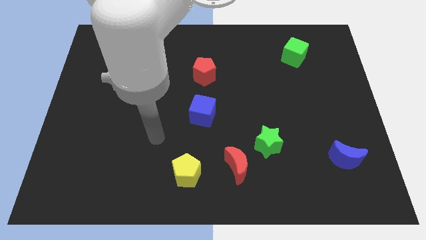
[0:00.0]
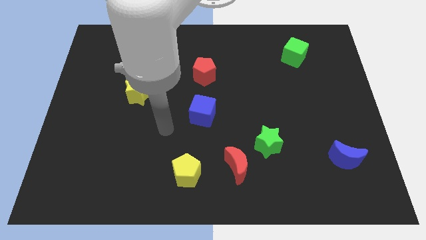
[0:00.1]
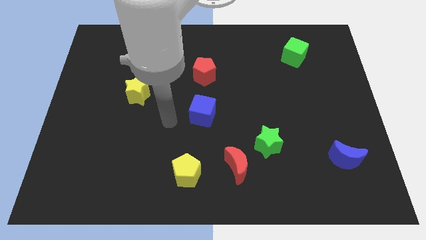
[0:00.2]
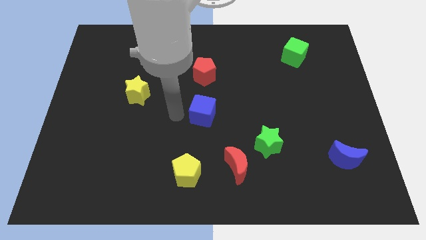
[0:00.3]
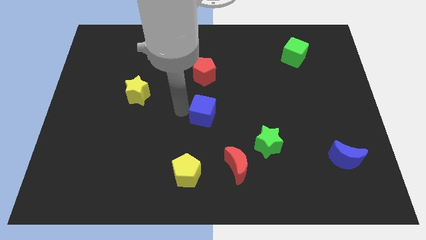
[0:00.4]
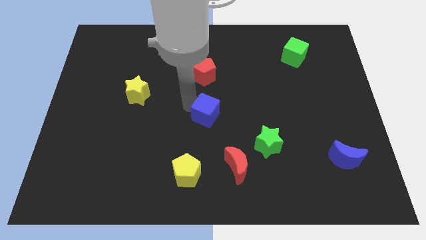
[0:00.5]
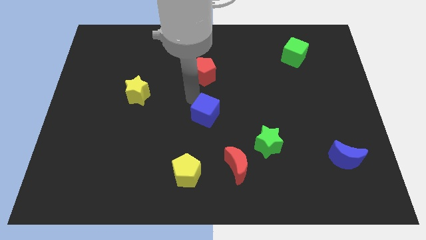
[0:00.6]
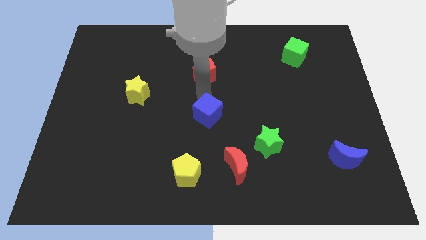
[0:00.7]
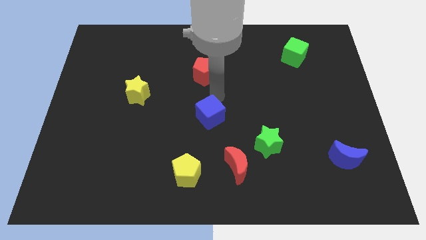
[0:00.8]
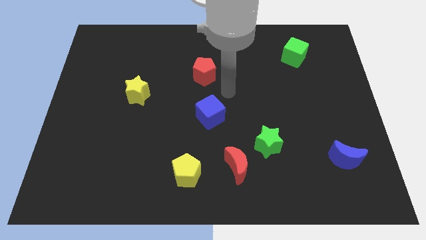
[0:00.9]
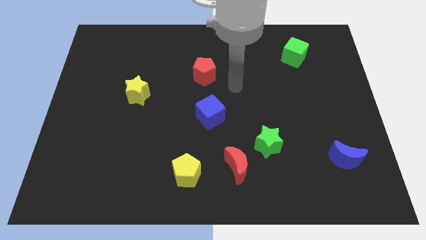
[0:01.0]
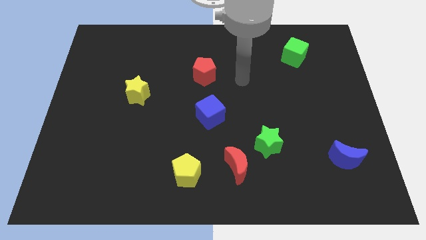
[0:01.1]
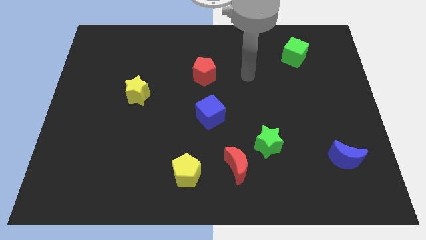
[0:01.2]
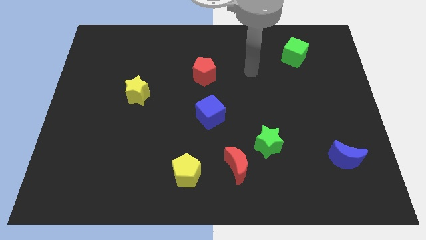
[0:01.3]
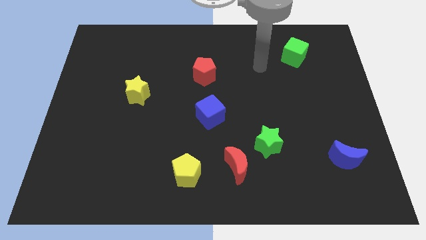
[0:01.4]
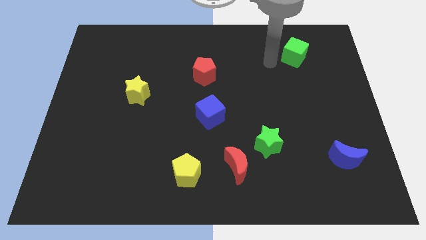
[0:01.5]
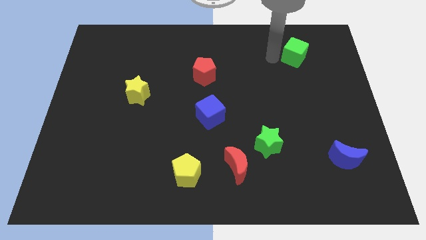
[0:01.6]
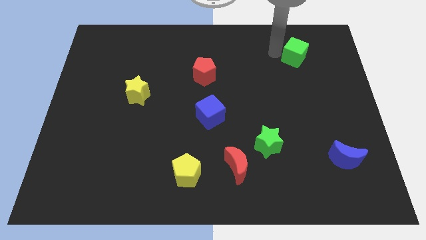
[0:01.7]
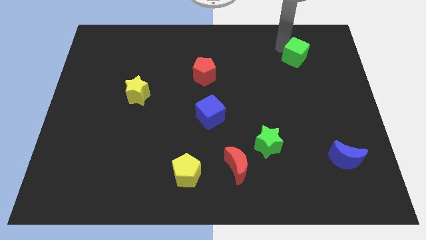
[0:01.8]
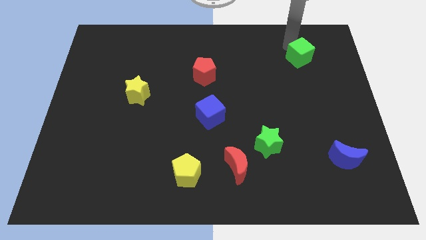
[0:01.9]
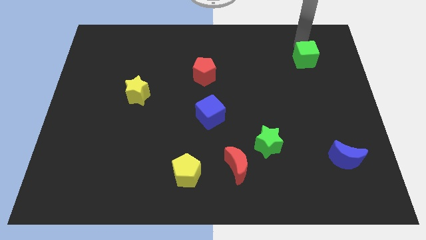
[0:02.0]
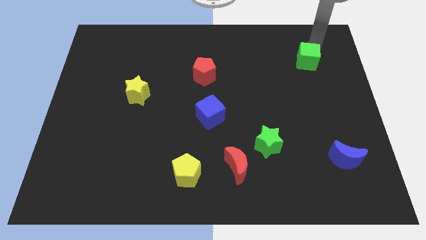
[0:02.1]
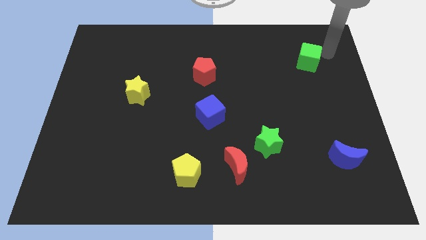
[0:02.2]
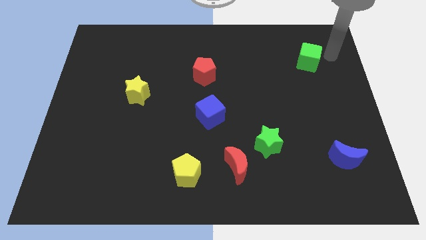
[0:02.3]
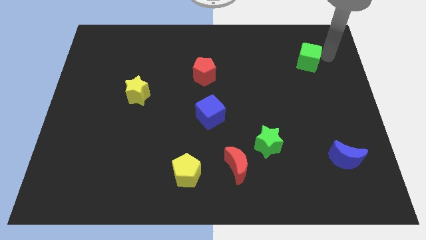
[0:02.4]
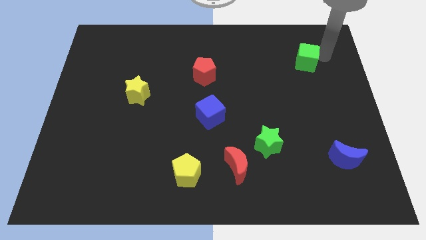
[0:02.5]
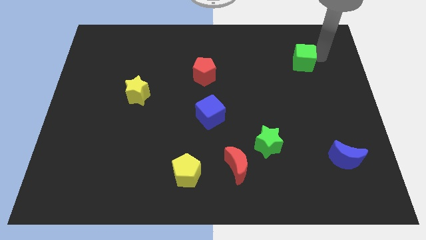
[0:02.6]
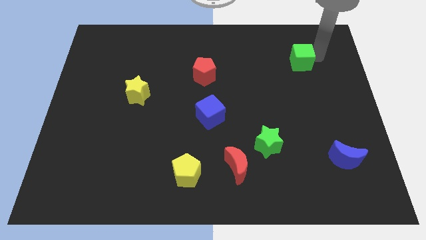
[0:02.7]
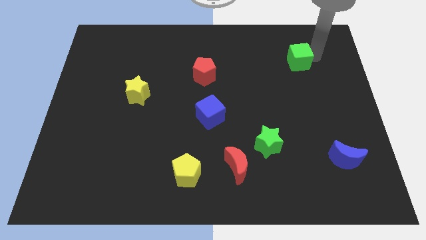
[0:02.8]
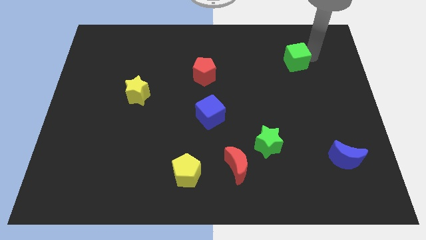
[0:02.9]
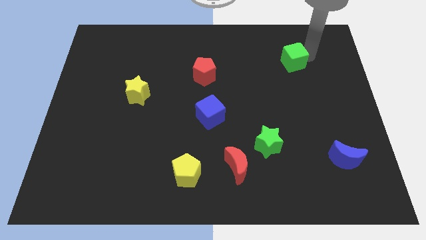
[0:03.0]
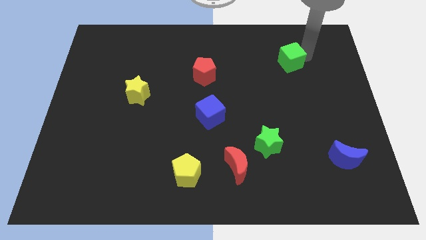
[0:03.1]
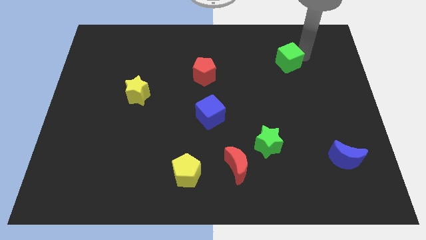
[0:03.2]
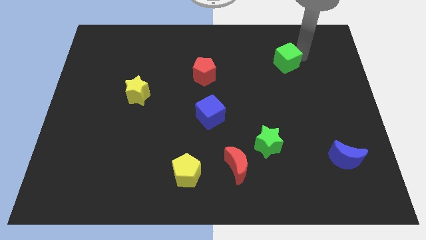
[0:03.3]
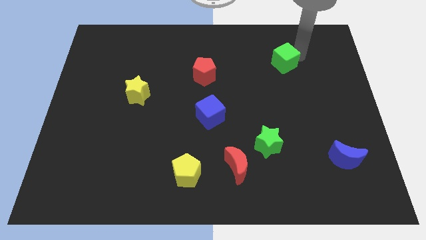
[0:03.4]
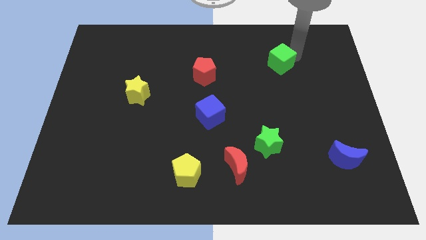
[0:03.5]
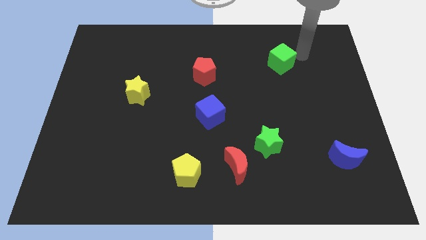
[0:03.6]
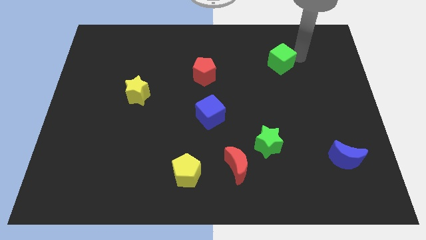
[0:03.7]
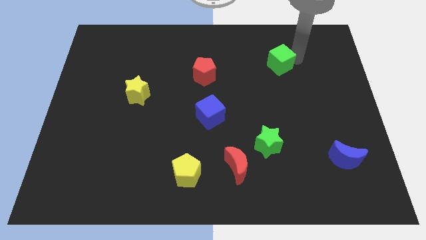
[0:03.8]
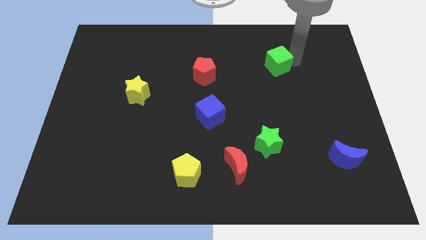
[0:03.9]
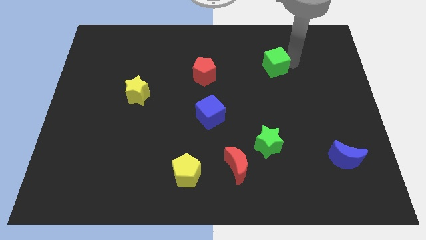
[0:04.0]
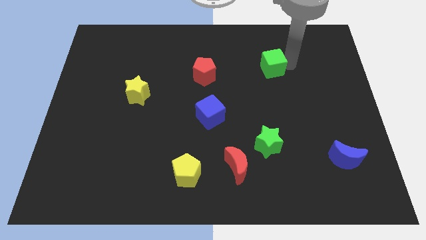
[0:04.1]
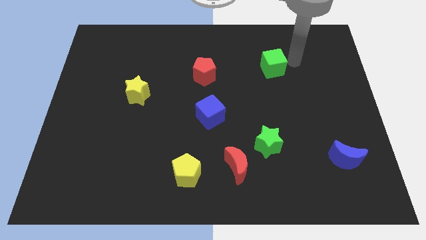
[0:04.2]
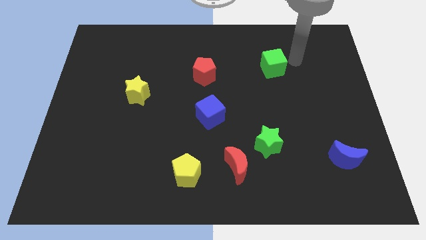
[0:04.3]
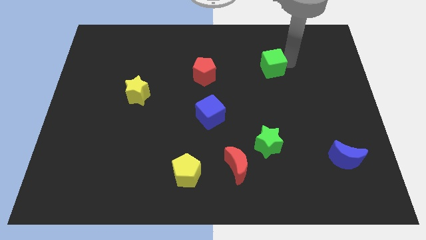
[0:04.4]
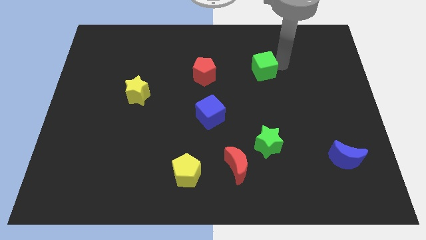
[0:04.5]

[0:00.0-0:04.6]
move the green cube just right of the red pentagon

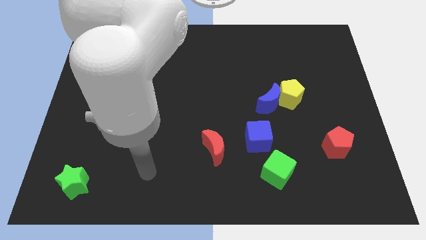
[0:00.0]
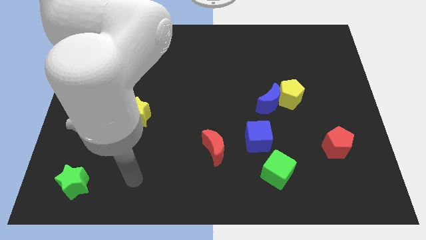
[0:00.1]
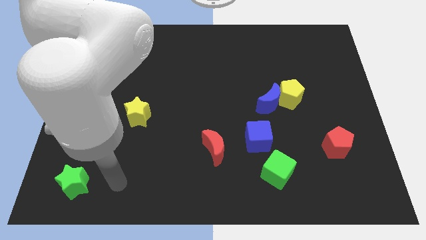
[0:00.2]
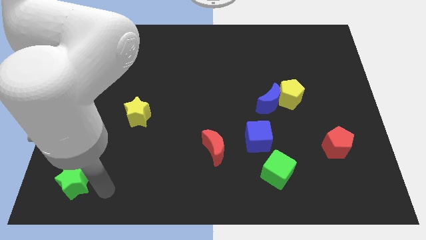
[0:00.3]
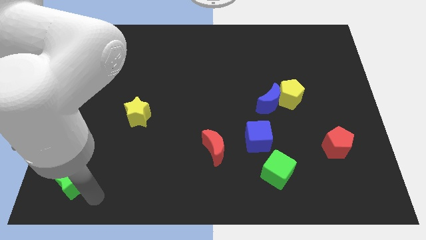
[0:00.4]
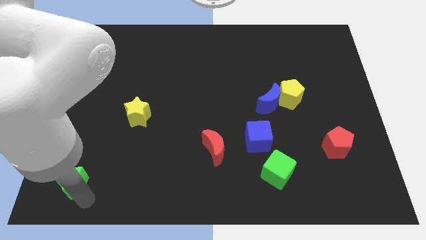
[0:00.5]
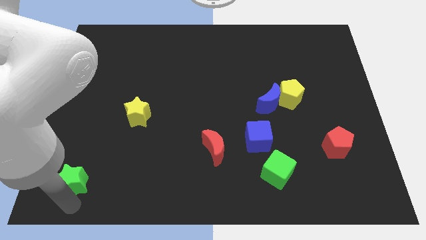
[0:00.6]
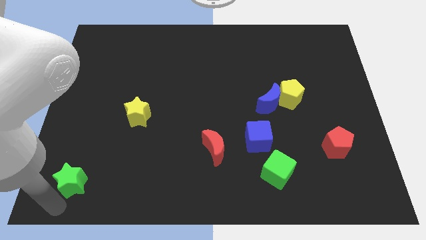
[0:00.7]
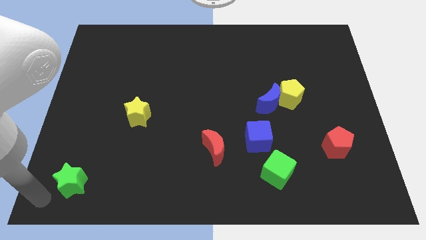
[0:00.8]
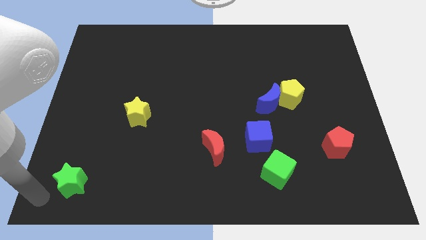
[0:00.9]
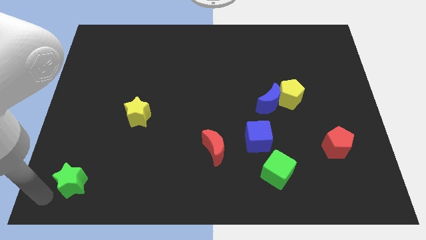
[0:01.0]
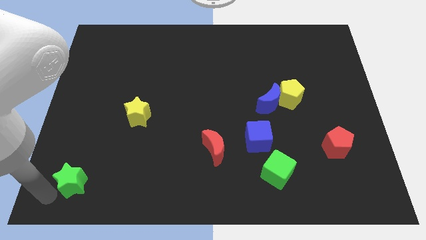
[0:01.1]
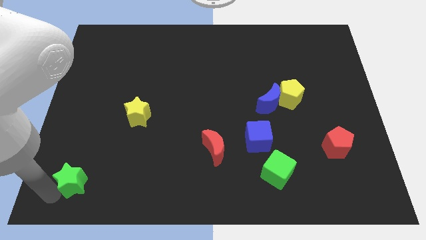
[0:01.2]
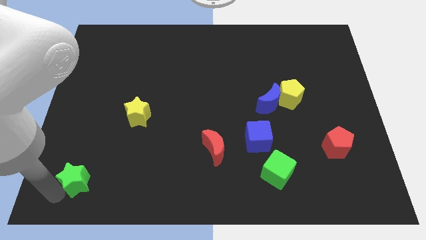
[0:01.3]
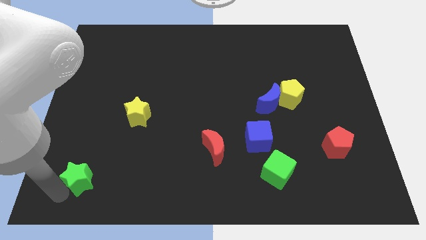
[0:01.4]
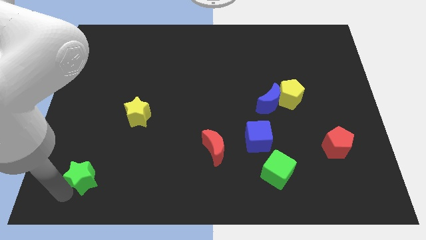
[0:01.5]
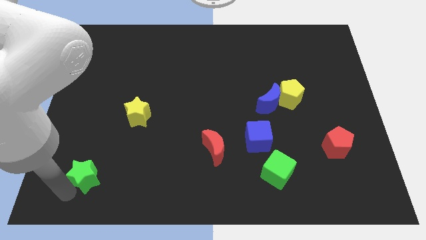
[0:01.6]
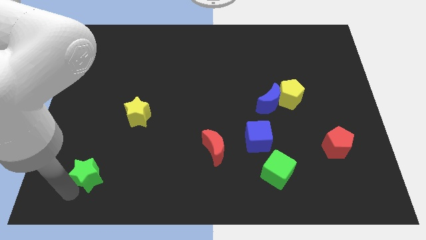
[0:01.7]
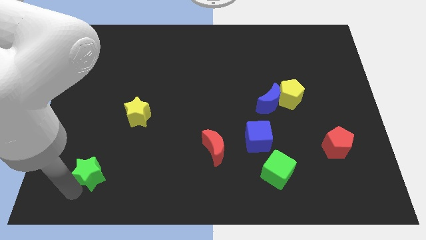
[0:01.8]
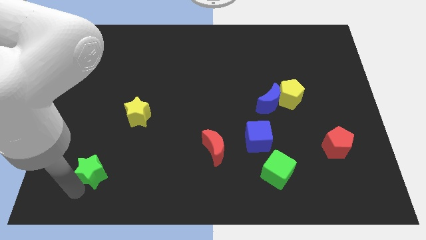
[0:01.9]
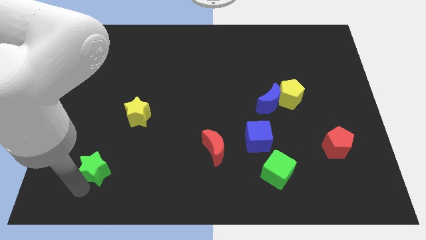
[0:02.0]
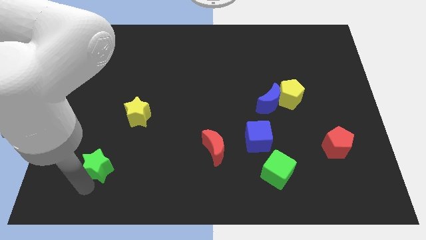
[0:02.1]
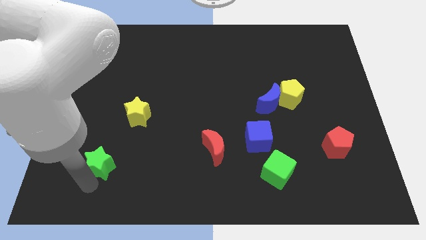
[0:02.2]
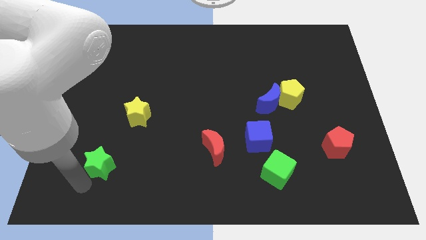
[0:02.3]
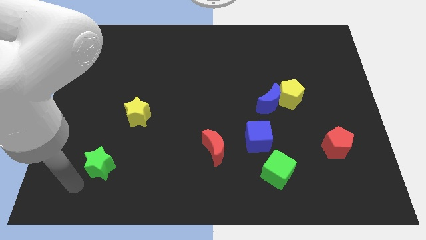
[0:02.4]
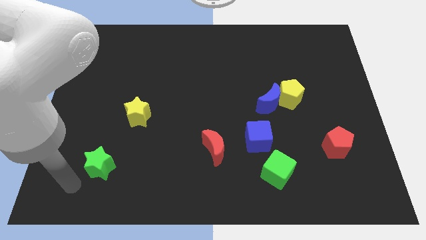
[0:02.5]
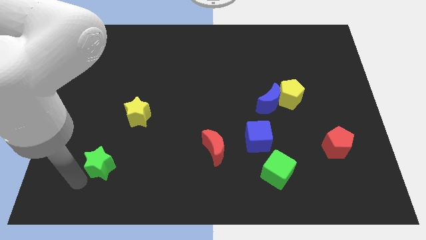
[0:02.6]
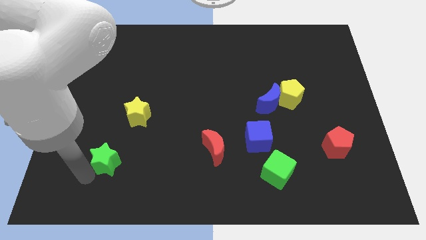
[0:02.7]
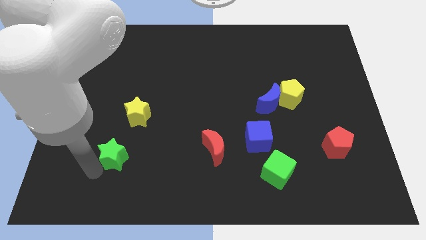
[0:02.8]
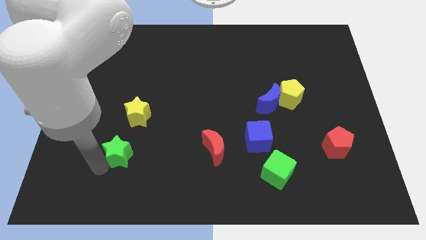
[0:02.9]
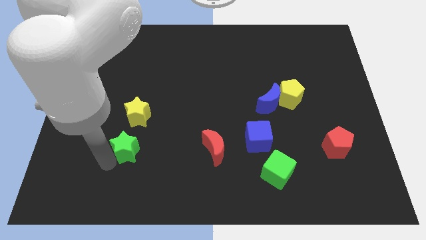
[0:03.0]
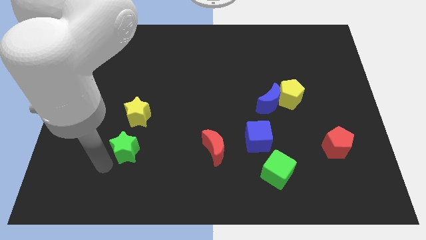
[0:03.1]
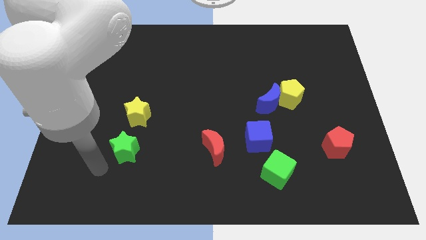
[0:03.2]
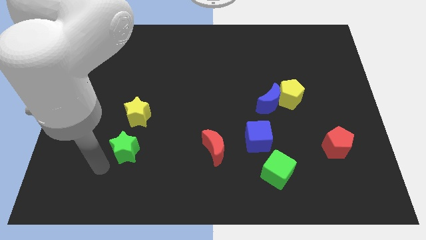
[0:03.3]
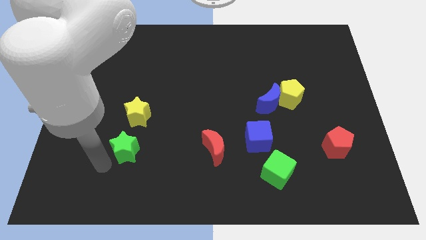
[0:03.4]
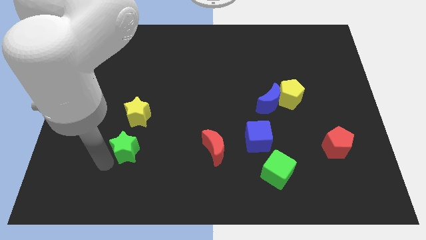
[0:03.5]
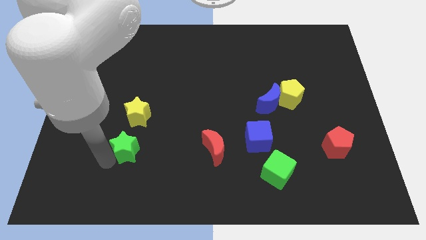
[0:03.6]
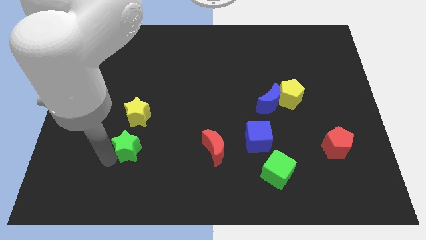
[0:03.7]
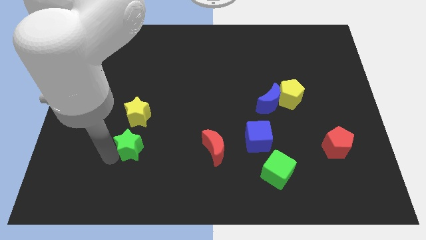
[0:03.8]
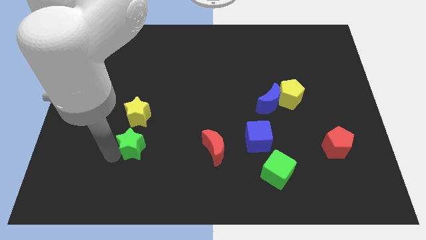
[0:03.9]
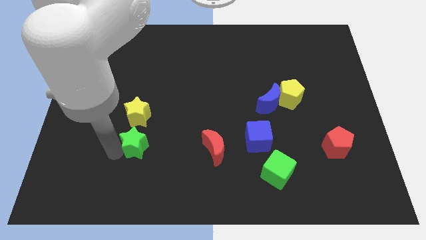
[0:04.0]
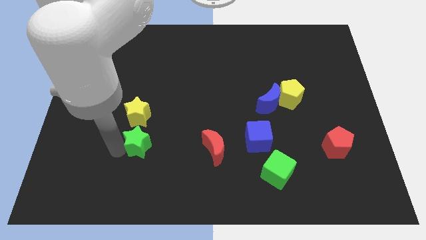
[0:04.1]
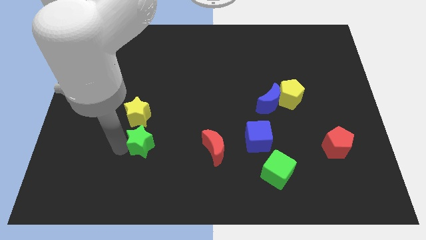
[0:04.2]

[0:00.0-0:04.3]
push the green star diagonally down and to the right of the yellow star
